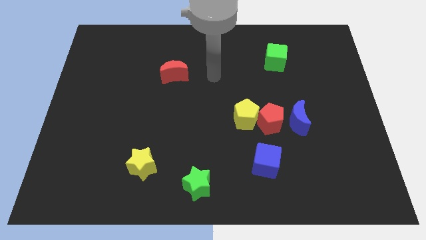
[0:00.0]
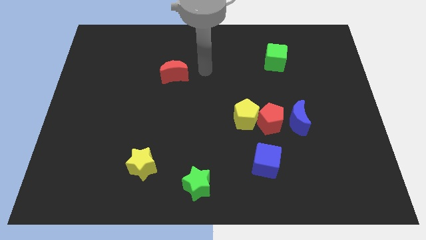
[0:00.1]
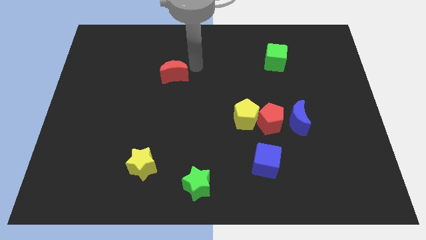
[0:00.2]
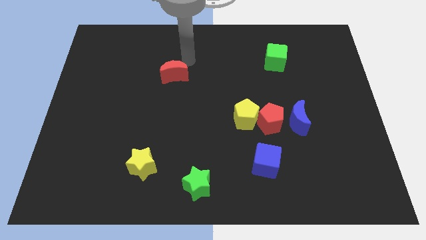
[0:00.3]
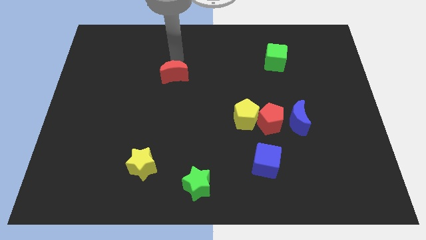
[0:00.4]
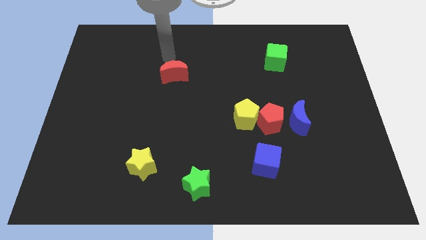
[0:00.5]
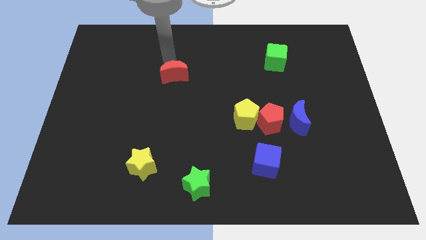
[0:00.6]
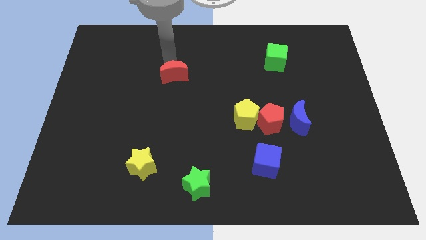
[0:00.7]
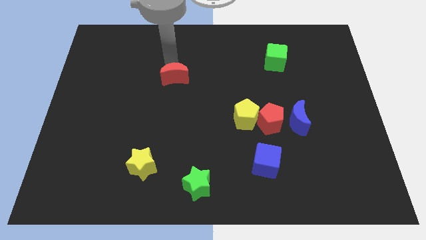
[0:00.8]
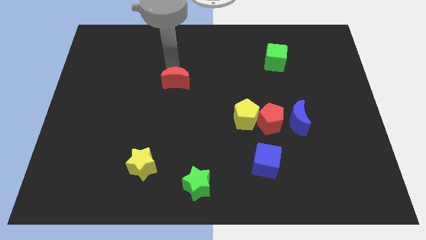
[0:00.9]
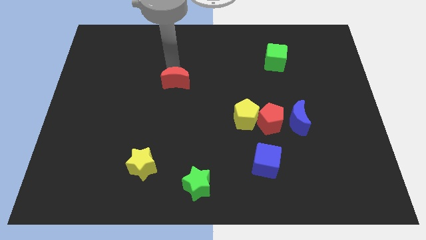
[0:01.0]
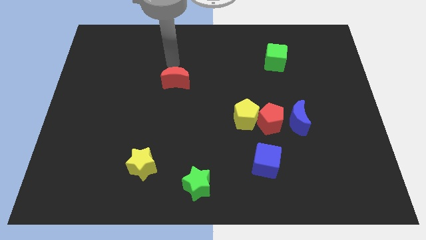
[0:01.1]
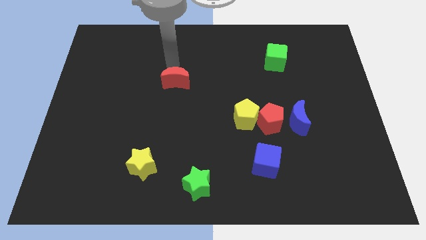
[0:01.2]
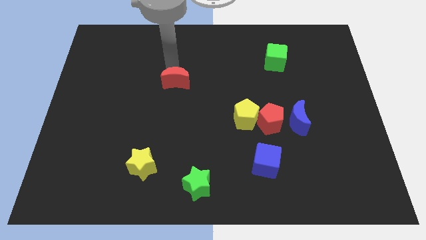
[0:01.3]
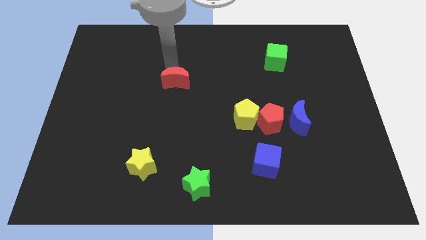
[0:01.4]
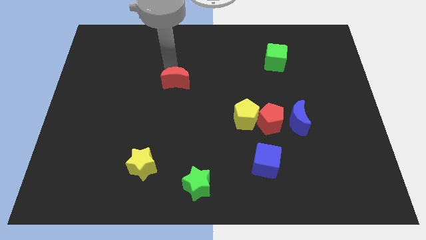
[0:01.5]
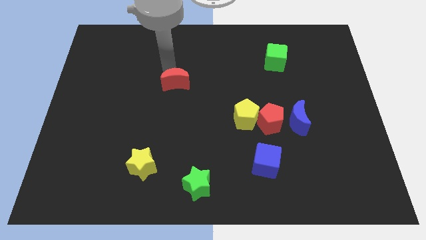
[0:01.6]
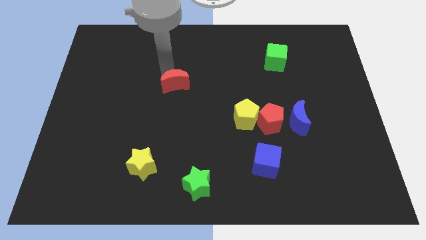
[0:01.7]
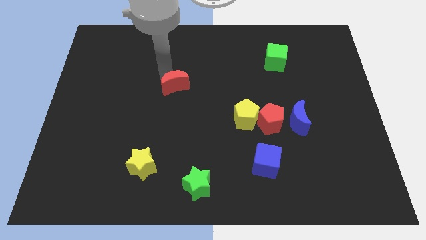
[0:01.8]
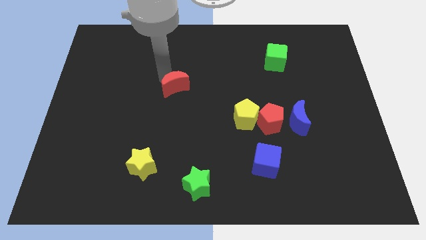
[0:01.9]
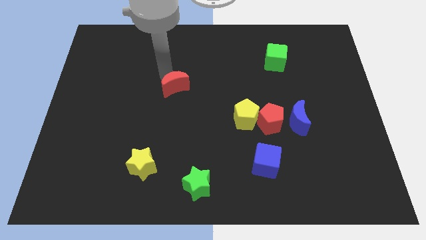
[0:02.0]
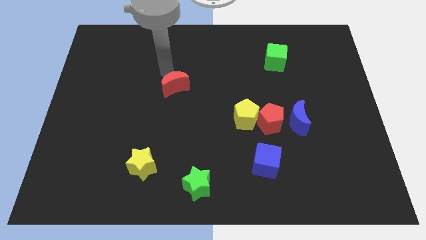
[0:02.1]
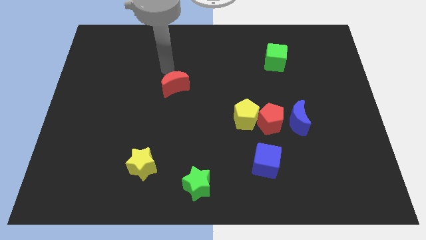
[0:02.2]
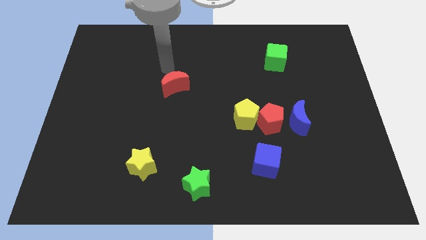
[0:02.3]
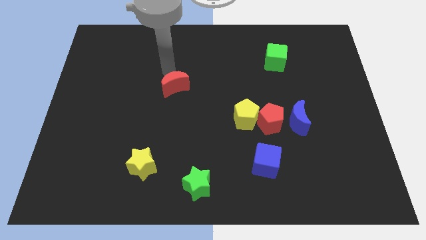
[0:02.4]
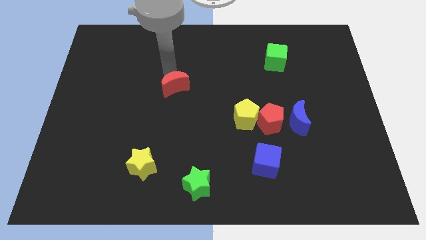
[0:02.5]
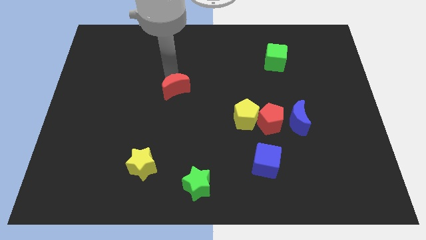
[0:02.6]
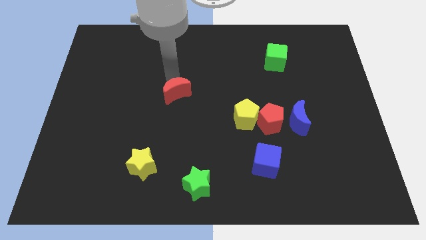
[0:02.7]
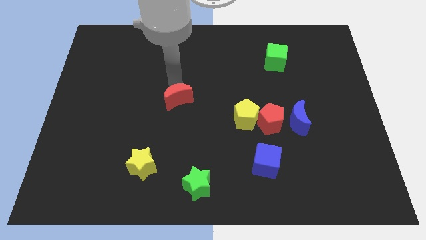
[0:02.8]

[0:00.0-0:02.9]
slide the red moon somewhat downwards

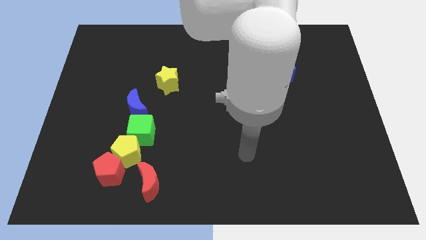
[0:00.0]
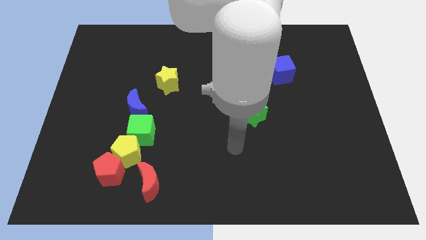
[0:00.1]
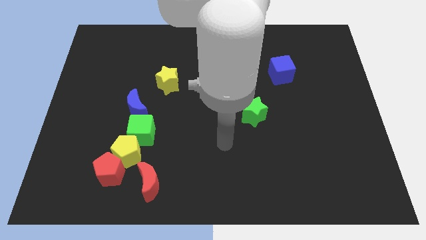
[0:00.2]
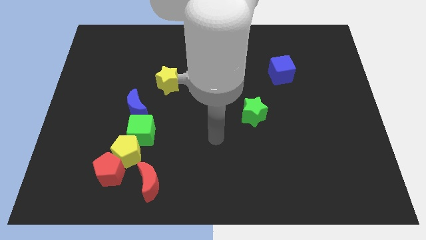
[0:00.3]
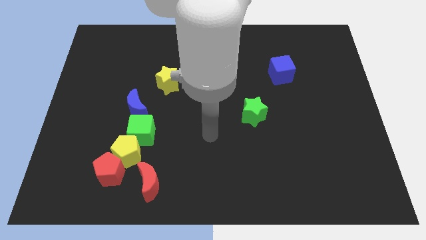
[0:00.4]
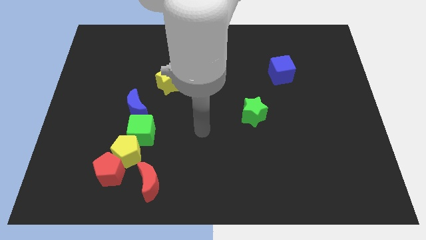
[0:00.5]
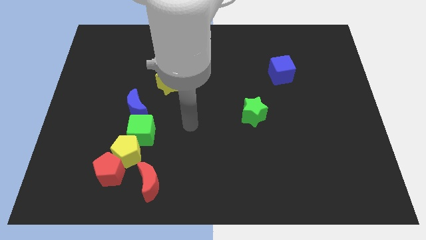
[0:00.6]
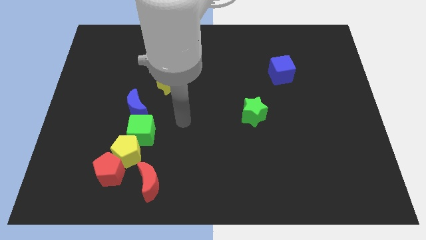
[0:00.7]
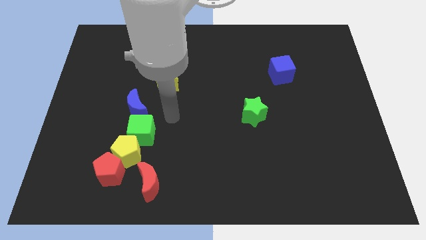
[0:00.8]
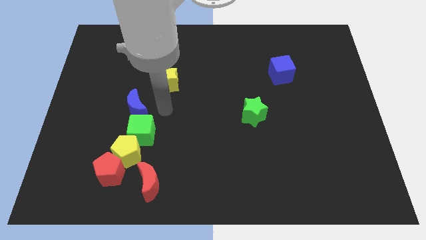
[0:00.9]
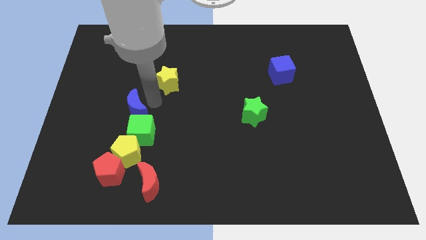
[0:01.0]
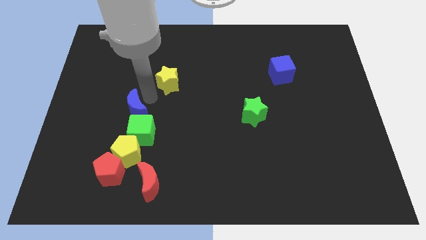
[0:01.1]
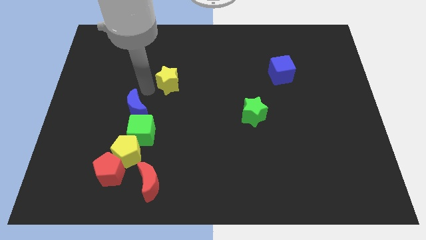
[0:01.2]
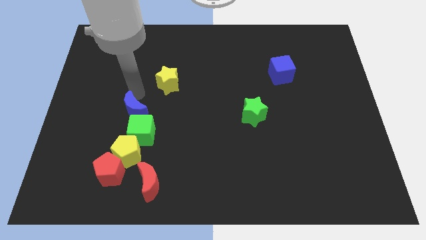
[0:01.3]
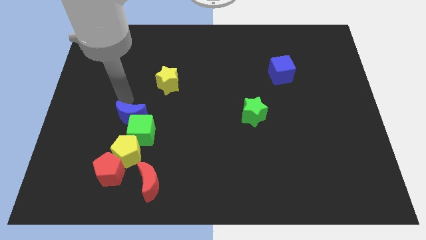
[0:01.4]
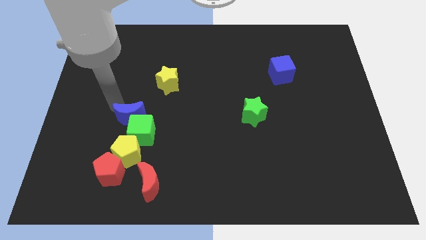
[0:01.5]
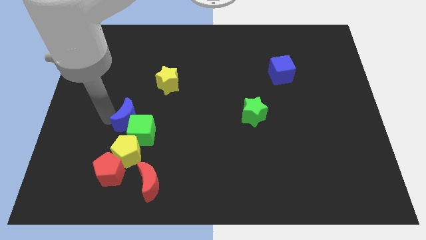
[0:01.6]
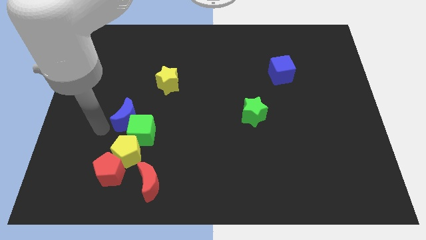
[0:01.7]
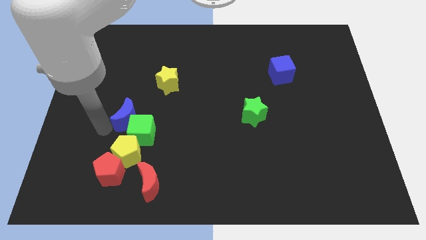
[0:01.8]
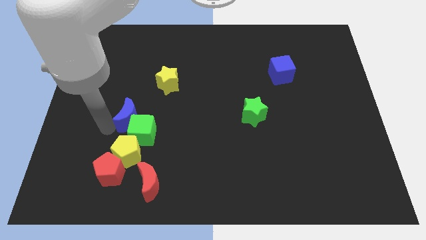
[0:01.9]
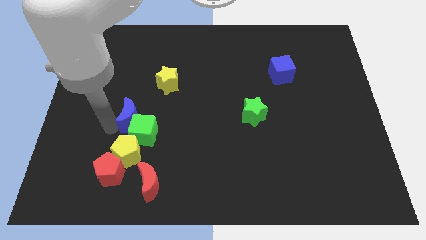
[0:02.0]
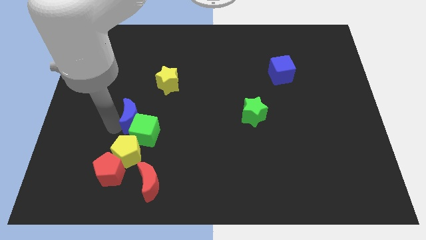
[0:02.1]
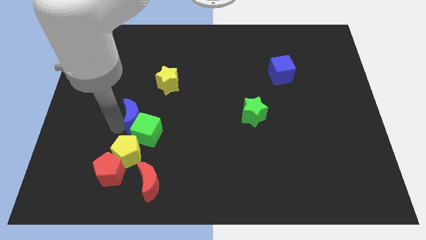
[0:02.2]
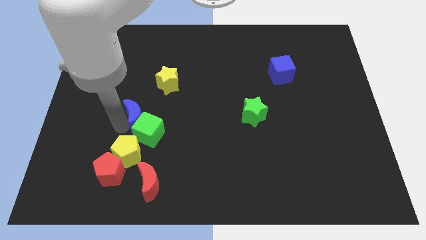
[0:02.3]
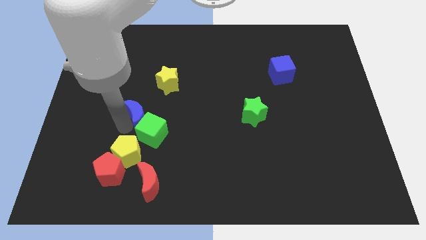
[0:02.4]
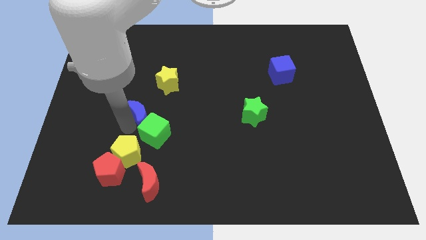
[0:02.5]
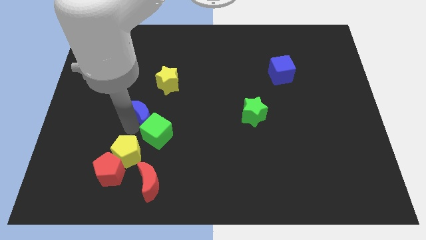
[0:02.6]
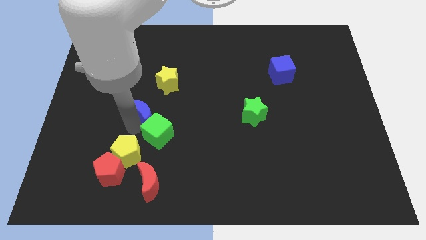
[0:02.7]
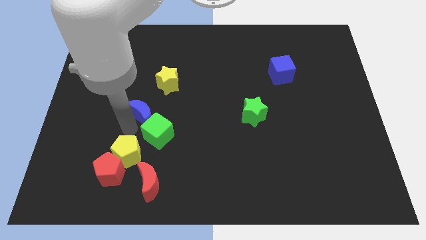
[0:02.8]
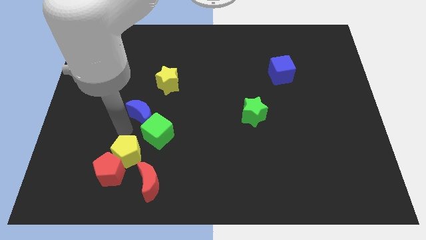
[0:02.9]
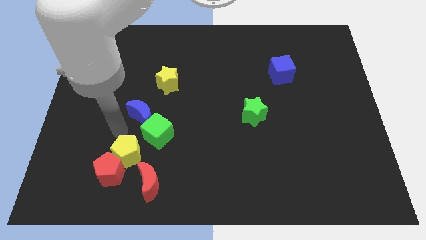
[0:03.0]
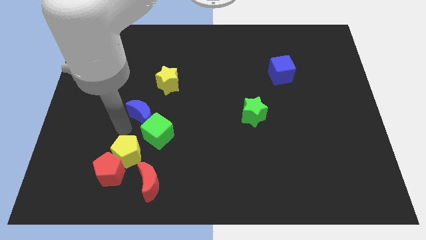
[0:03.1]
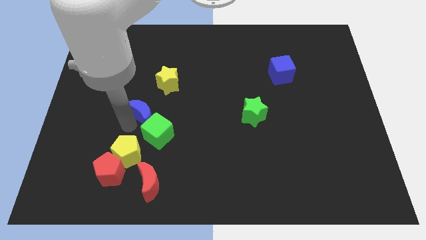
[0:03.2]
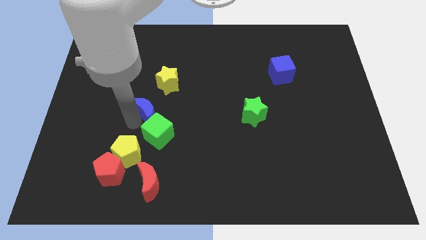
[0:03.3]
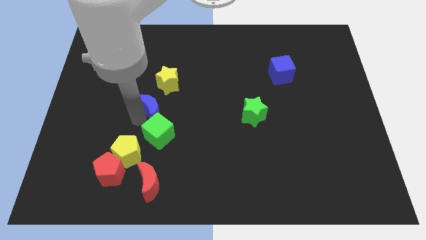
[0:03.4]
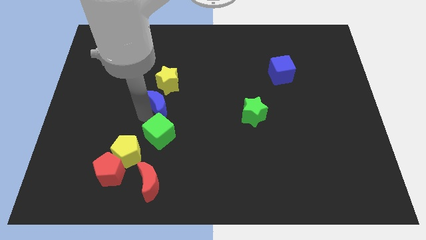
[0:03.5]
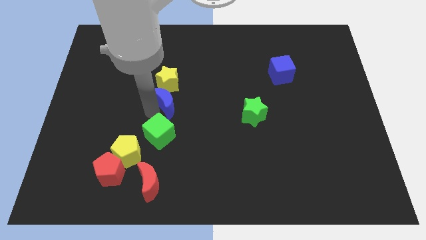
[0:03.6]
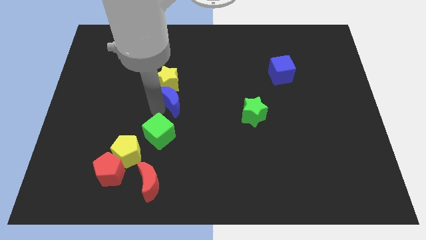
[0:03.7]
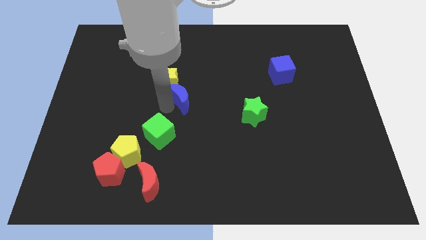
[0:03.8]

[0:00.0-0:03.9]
slide the blue moon a little bit up and then to the right

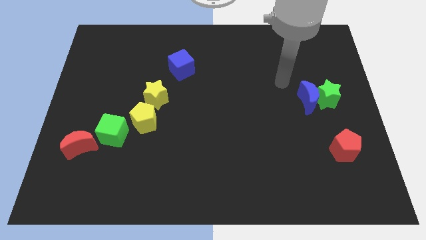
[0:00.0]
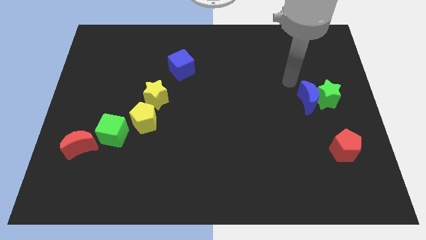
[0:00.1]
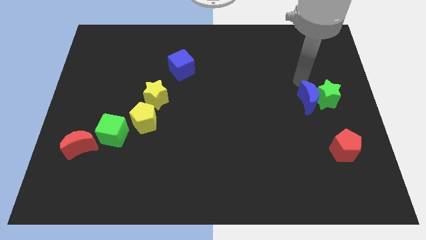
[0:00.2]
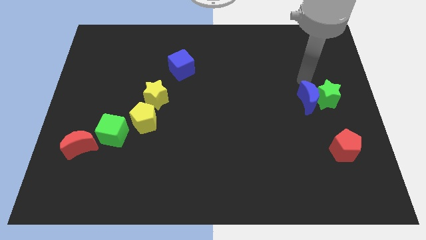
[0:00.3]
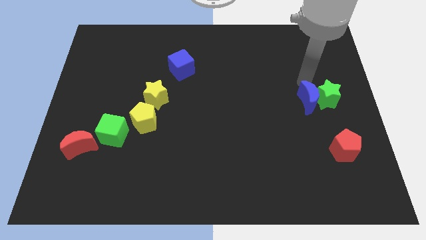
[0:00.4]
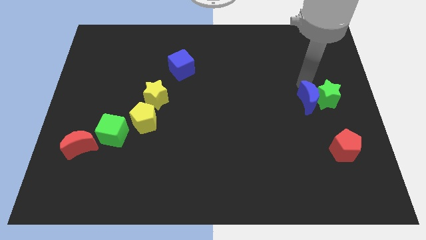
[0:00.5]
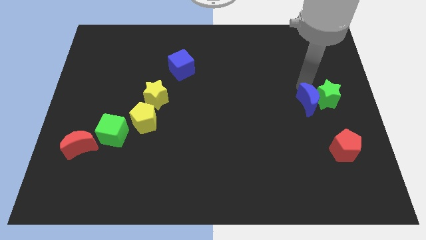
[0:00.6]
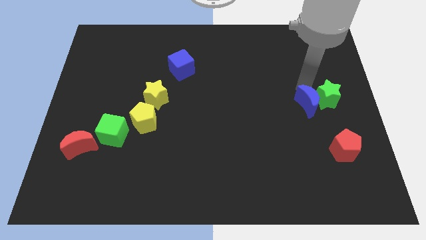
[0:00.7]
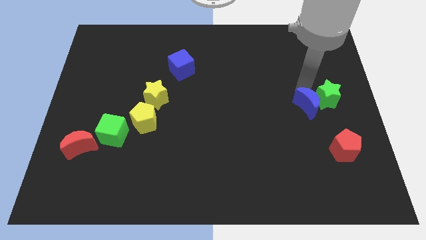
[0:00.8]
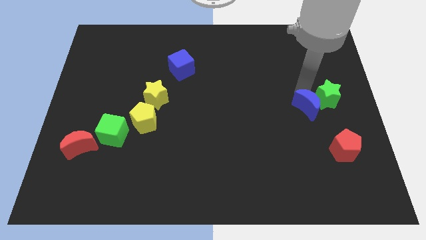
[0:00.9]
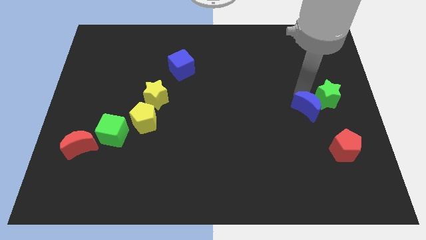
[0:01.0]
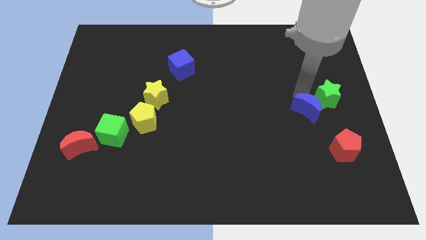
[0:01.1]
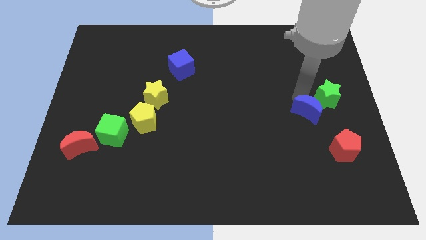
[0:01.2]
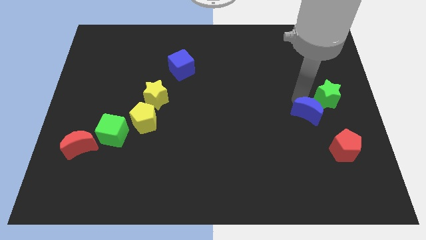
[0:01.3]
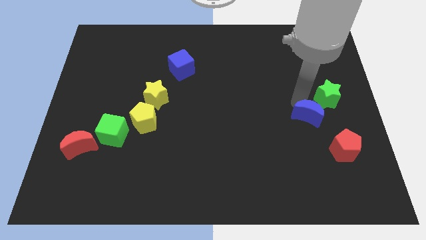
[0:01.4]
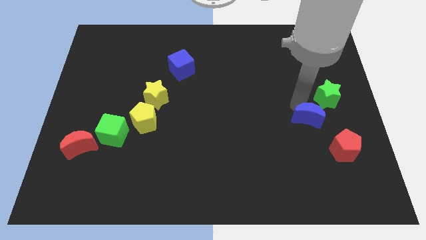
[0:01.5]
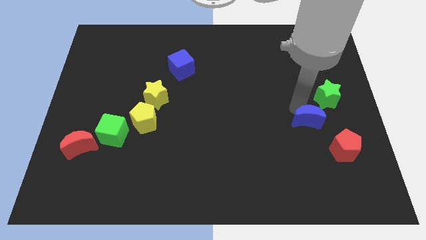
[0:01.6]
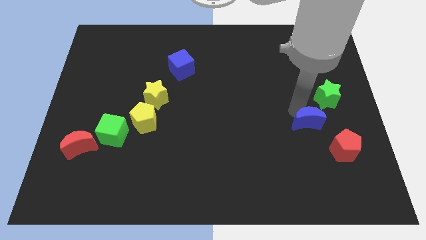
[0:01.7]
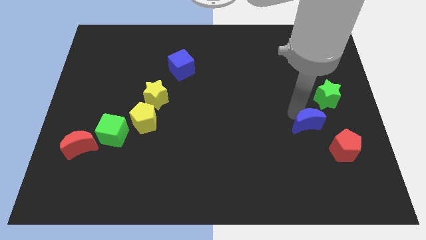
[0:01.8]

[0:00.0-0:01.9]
push the blue moon downwards a little
